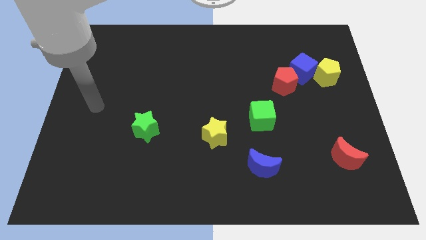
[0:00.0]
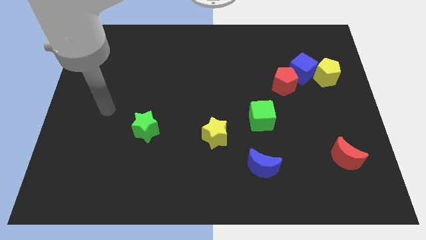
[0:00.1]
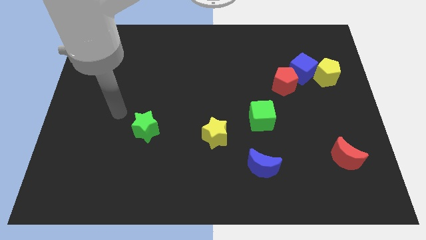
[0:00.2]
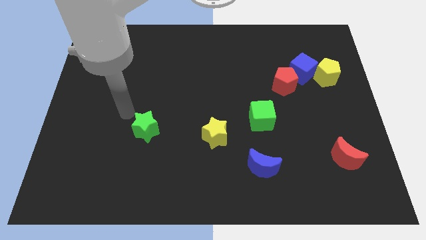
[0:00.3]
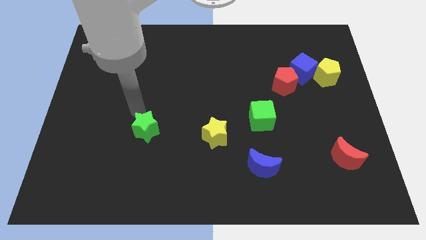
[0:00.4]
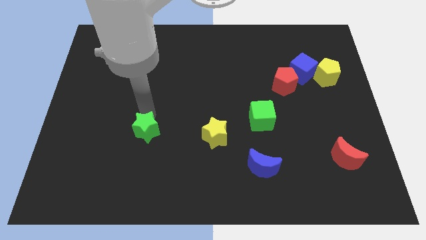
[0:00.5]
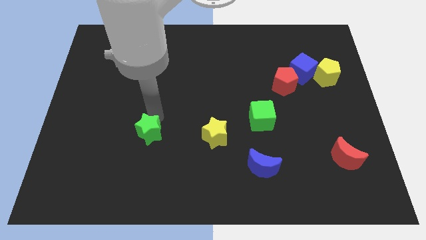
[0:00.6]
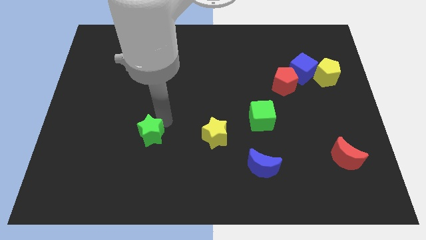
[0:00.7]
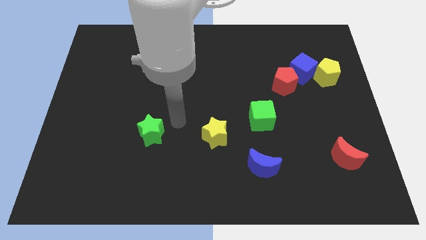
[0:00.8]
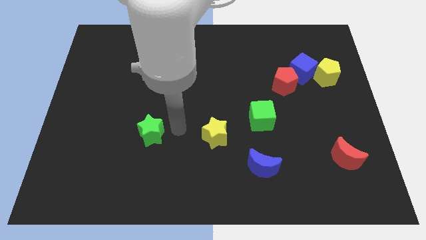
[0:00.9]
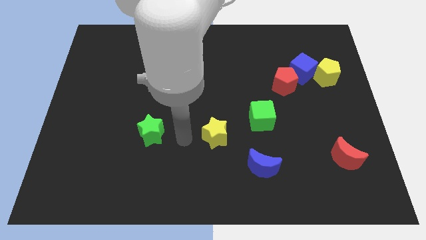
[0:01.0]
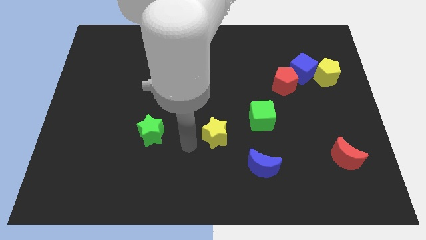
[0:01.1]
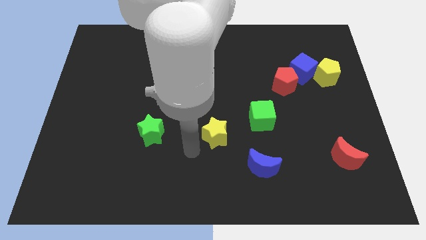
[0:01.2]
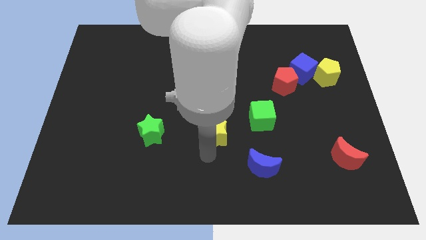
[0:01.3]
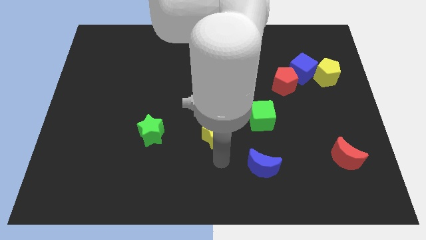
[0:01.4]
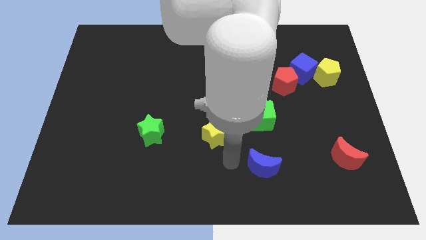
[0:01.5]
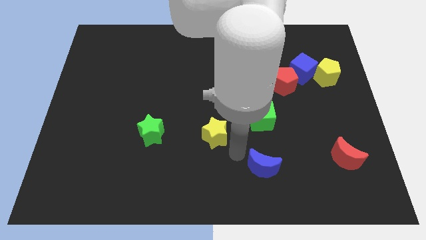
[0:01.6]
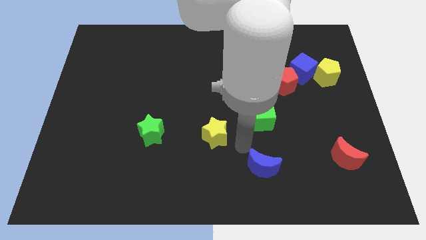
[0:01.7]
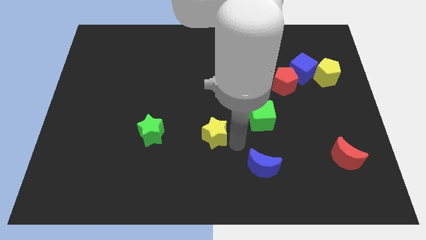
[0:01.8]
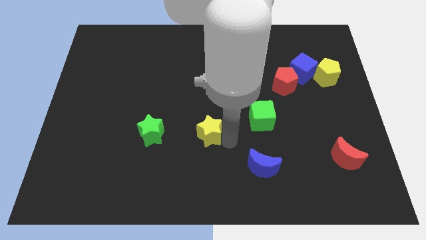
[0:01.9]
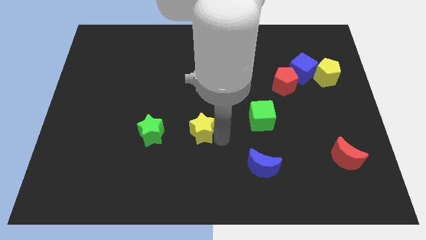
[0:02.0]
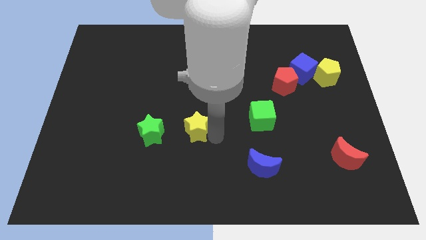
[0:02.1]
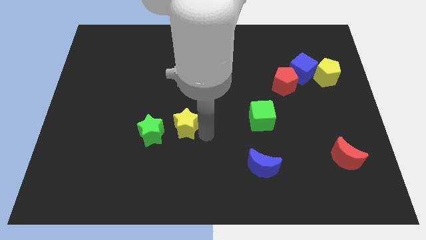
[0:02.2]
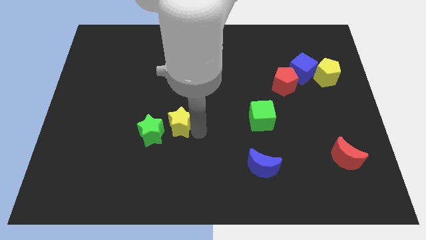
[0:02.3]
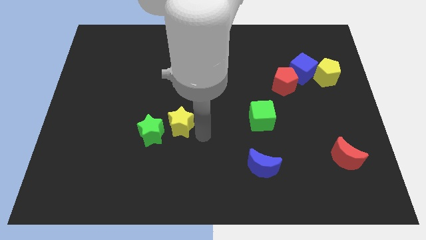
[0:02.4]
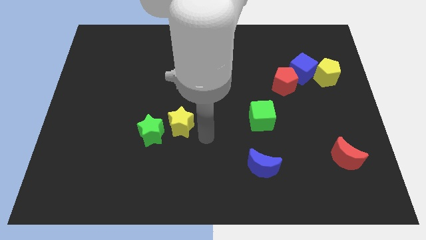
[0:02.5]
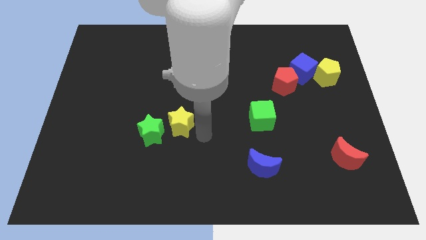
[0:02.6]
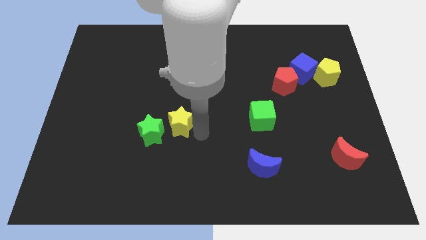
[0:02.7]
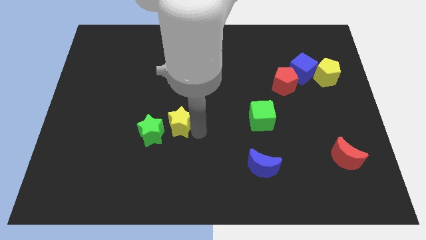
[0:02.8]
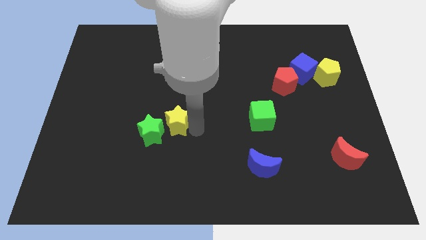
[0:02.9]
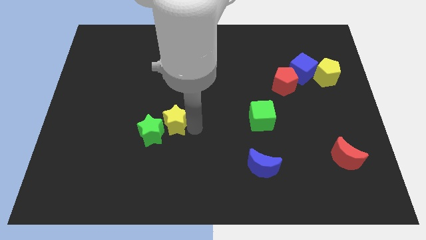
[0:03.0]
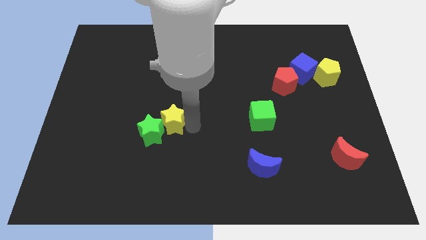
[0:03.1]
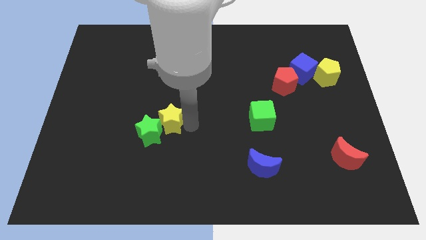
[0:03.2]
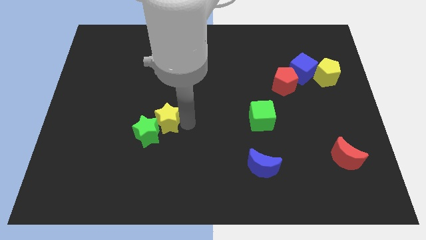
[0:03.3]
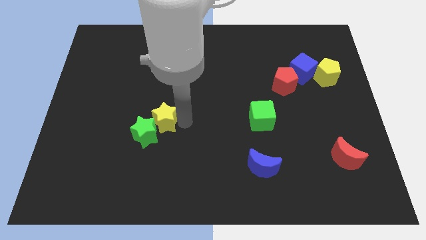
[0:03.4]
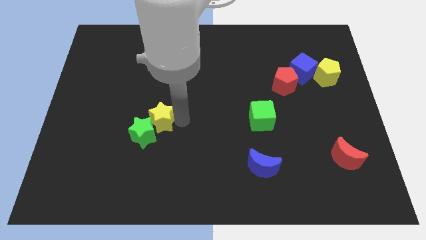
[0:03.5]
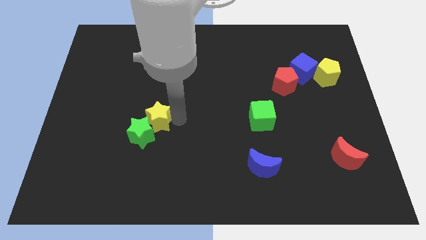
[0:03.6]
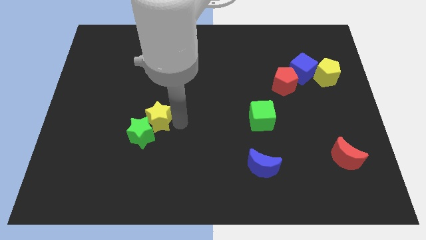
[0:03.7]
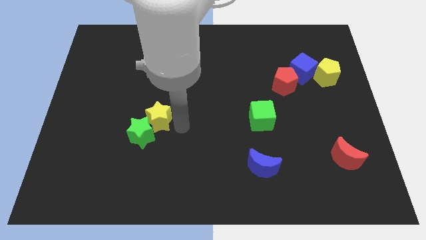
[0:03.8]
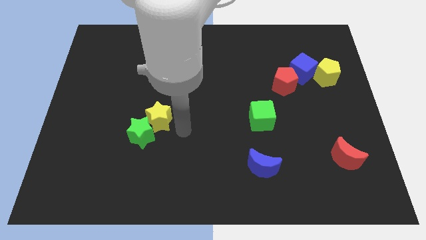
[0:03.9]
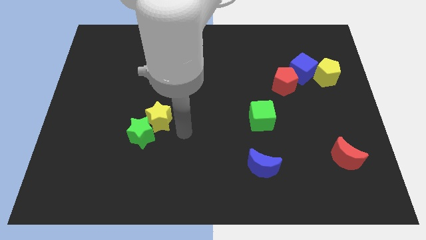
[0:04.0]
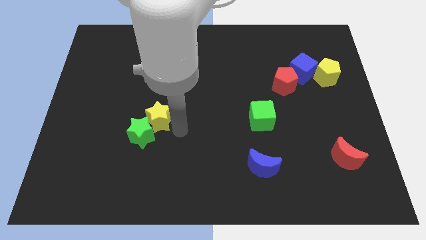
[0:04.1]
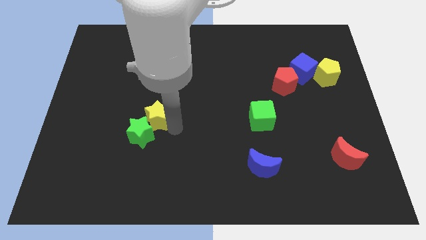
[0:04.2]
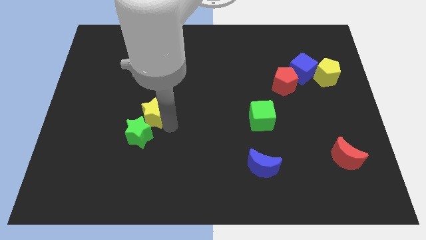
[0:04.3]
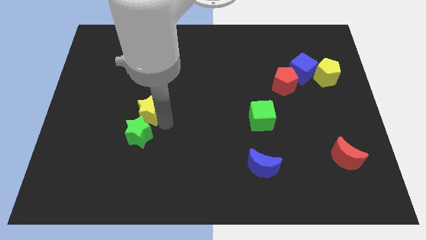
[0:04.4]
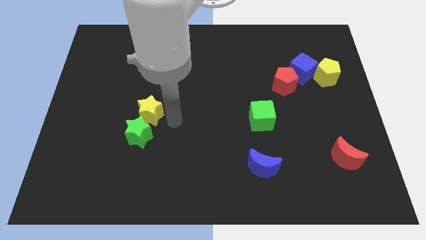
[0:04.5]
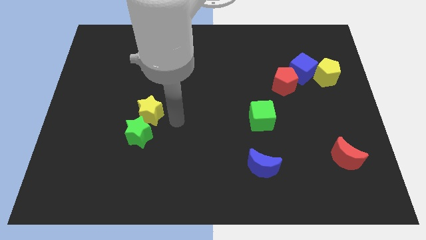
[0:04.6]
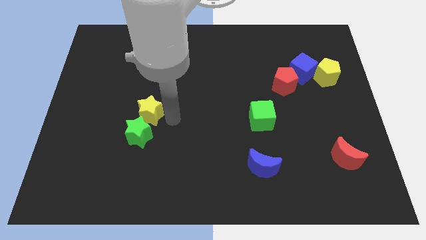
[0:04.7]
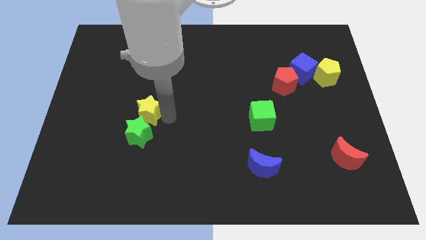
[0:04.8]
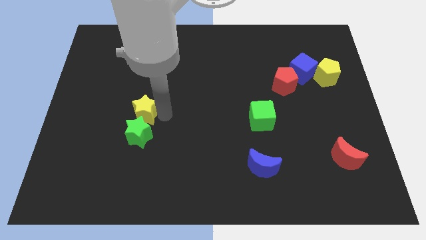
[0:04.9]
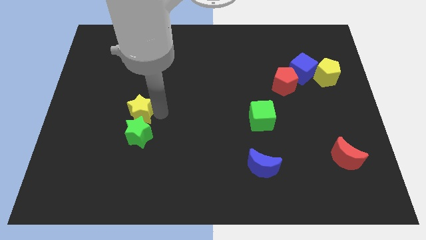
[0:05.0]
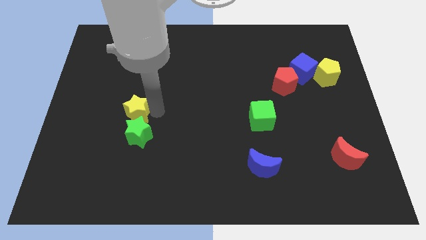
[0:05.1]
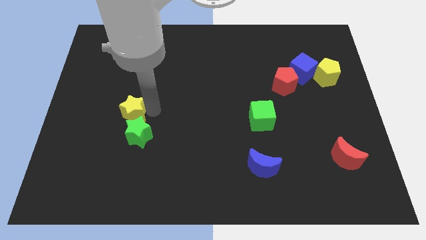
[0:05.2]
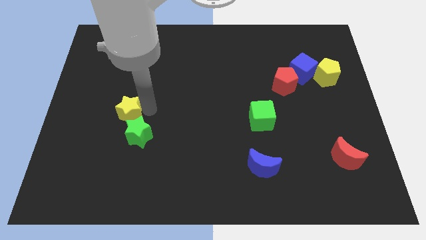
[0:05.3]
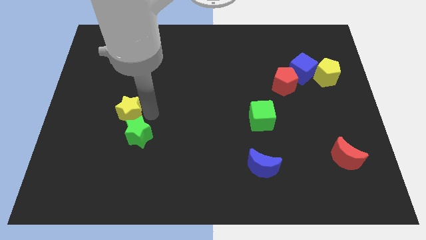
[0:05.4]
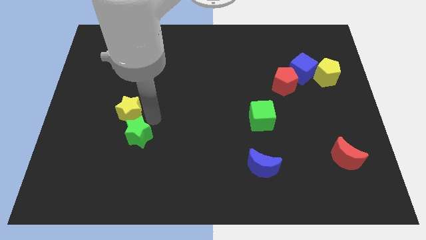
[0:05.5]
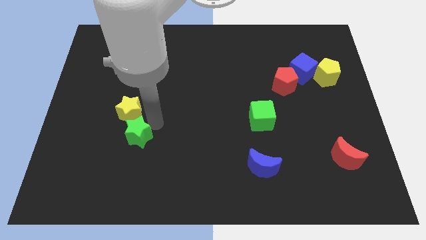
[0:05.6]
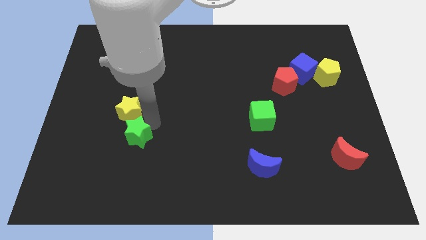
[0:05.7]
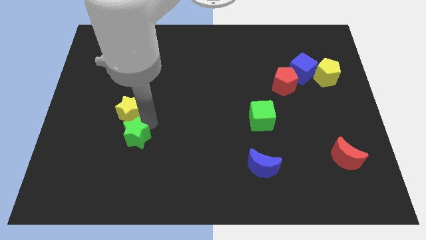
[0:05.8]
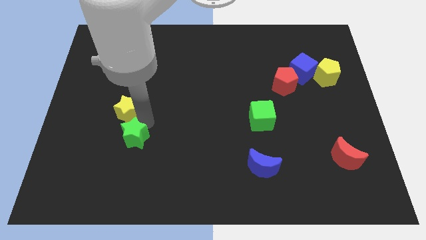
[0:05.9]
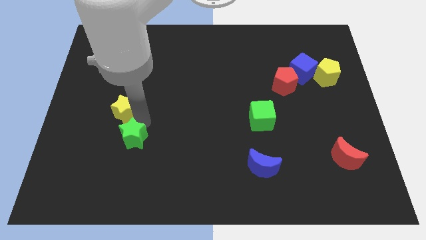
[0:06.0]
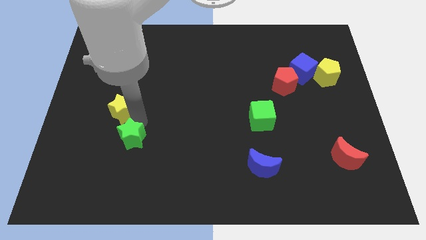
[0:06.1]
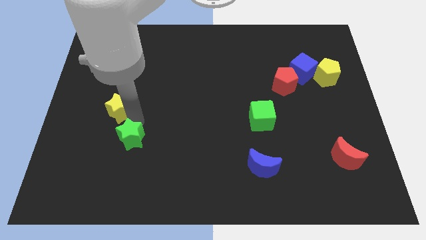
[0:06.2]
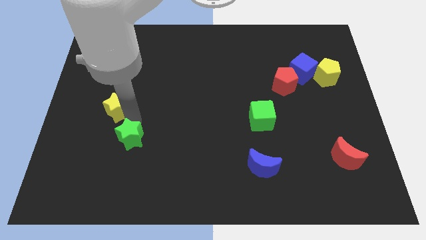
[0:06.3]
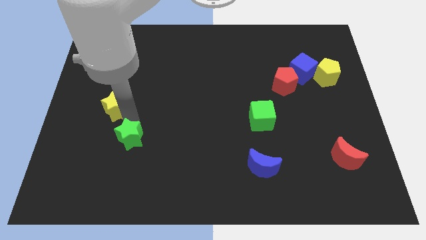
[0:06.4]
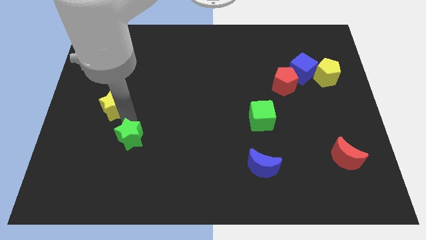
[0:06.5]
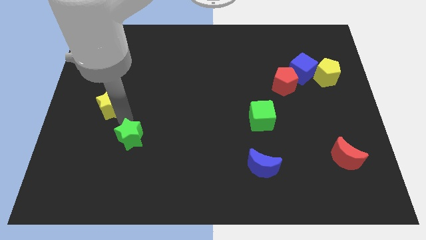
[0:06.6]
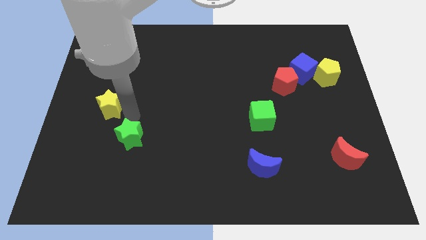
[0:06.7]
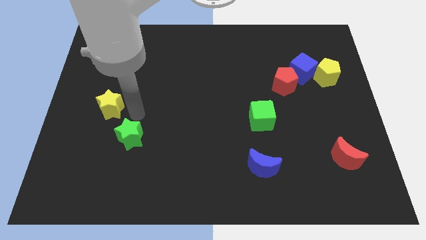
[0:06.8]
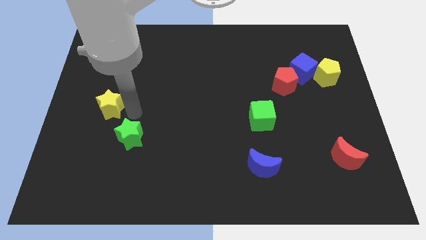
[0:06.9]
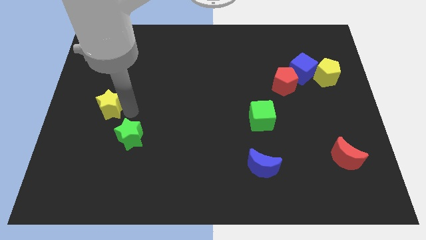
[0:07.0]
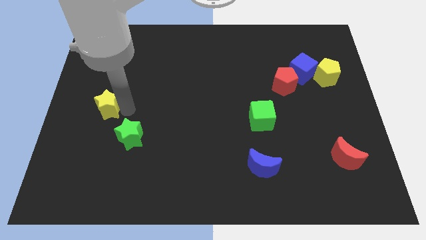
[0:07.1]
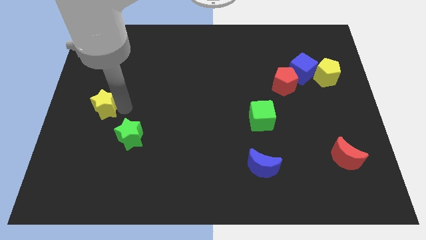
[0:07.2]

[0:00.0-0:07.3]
put the yellow star to the left side of the board
